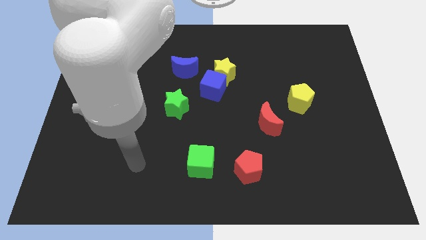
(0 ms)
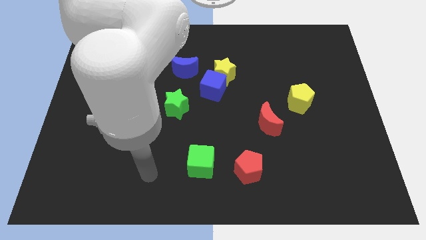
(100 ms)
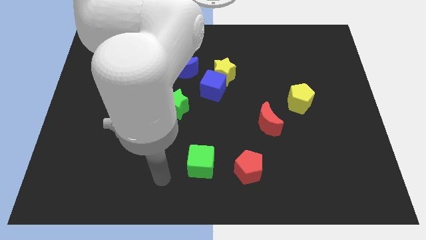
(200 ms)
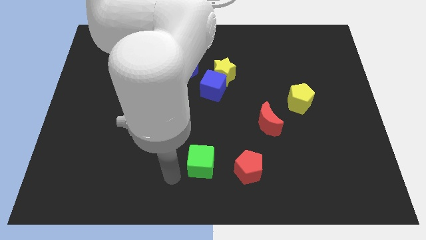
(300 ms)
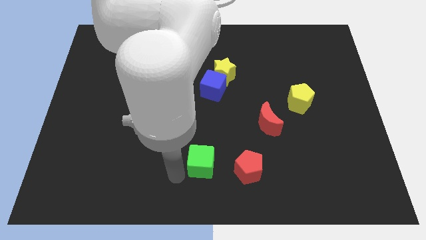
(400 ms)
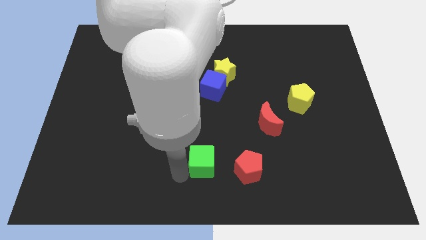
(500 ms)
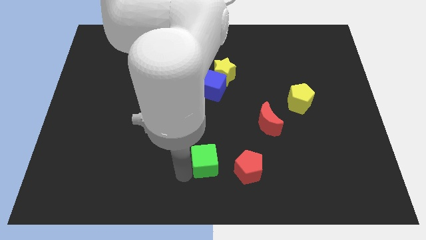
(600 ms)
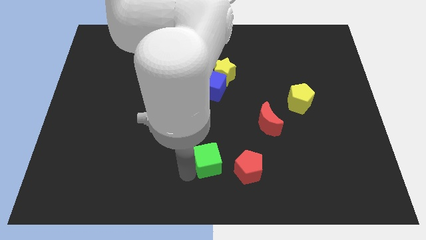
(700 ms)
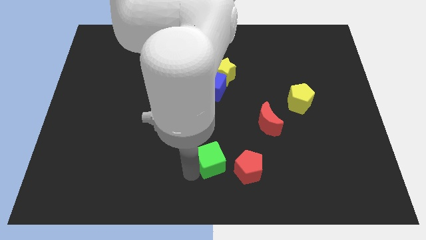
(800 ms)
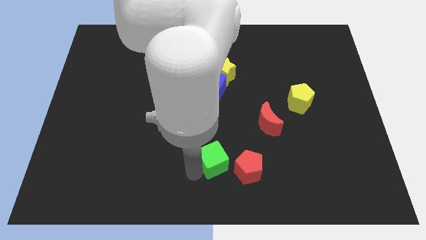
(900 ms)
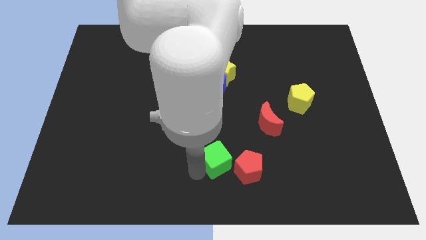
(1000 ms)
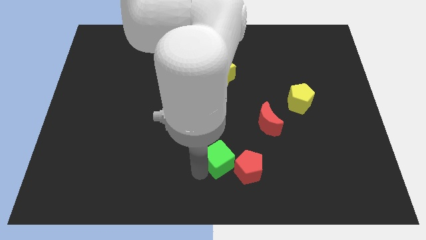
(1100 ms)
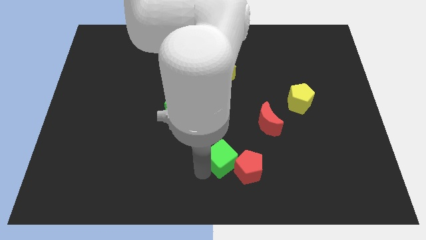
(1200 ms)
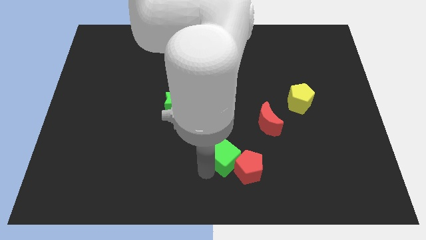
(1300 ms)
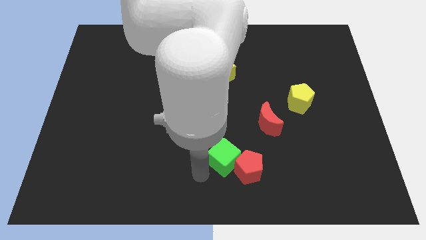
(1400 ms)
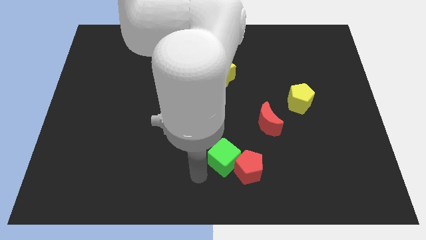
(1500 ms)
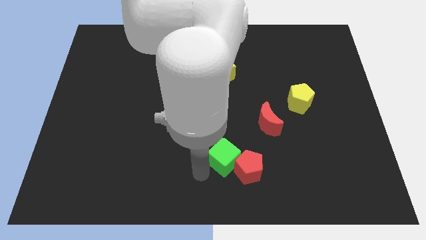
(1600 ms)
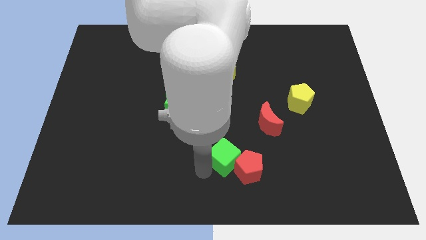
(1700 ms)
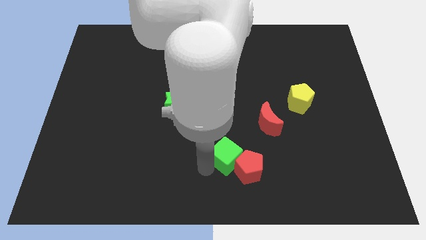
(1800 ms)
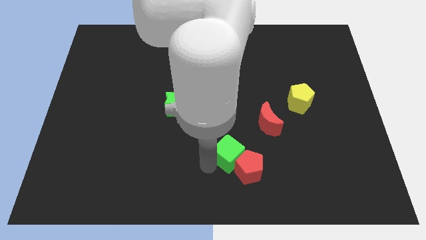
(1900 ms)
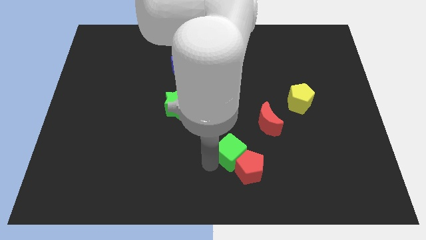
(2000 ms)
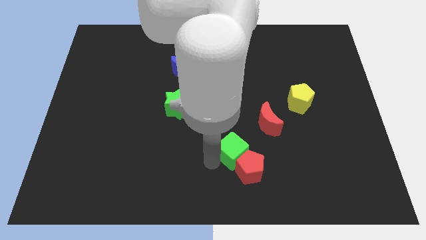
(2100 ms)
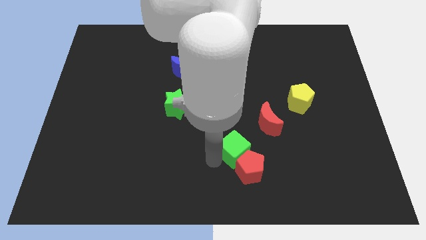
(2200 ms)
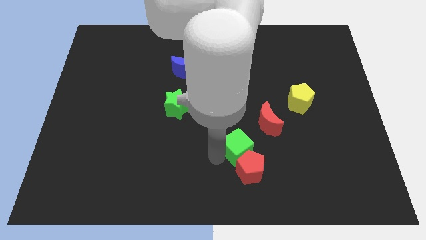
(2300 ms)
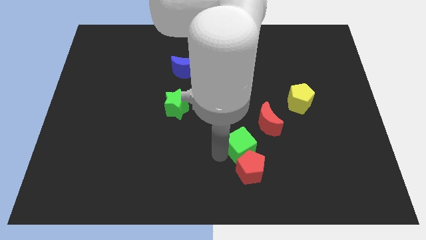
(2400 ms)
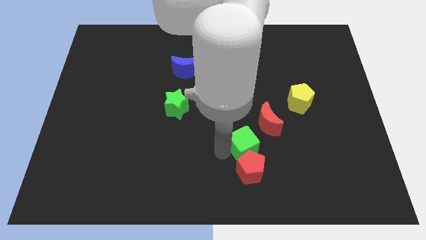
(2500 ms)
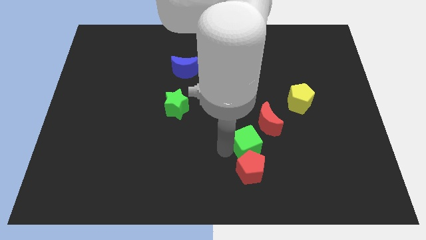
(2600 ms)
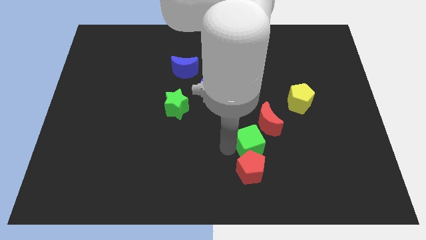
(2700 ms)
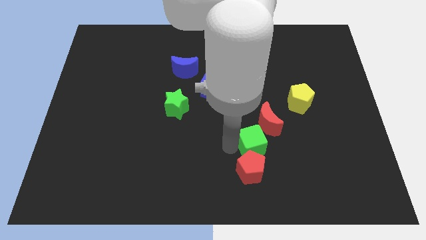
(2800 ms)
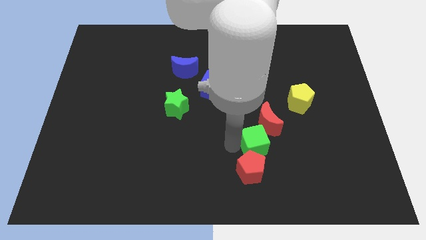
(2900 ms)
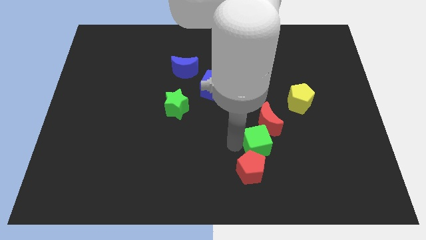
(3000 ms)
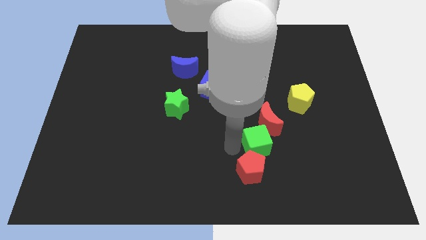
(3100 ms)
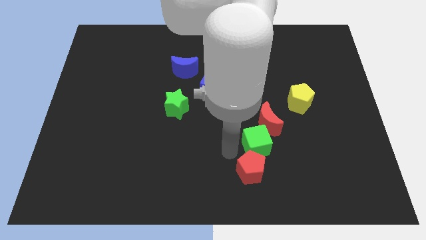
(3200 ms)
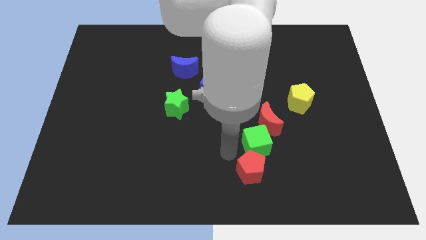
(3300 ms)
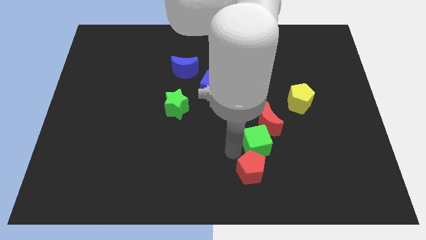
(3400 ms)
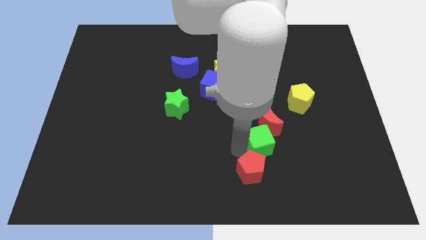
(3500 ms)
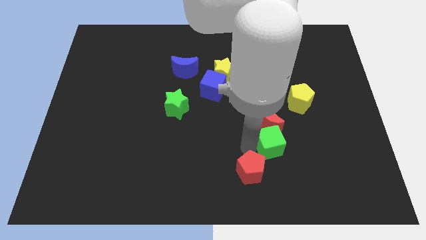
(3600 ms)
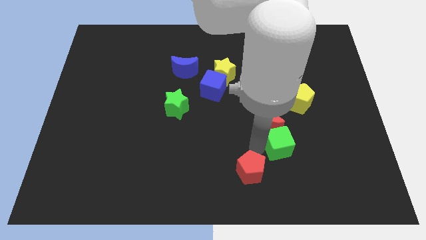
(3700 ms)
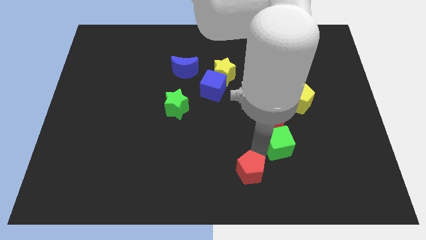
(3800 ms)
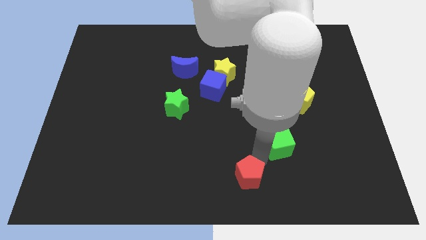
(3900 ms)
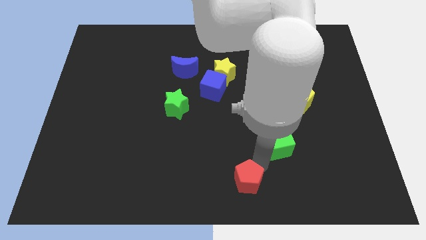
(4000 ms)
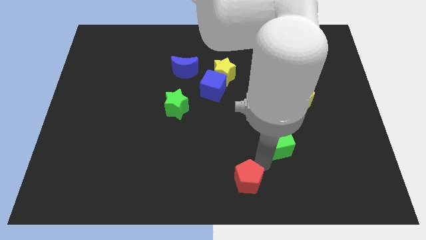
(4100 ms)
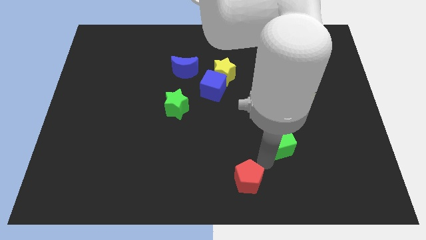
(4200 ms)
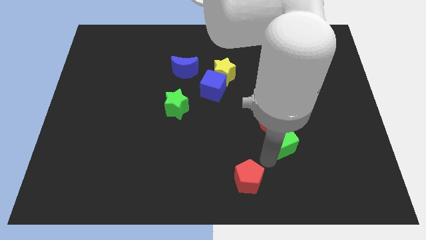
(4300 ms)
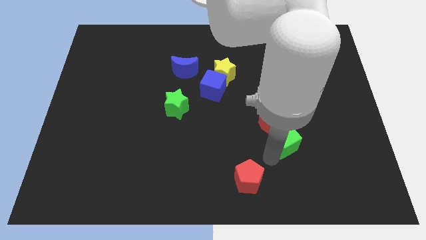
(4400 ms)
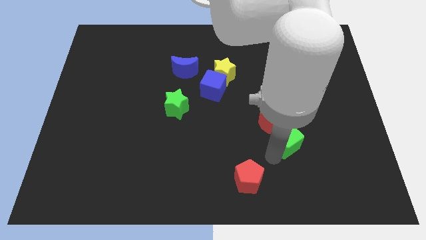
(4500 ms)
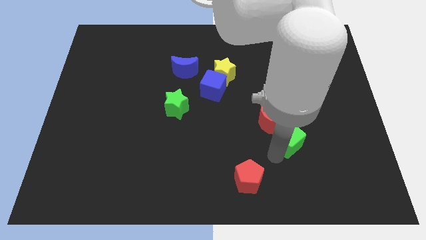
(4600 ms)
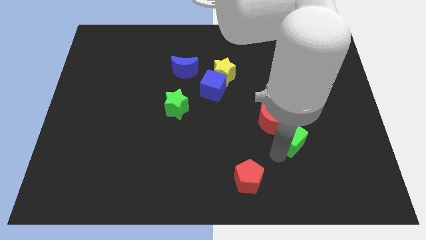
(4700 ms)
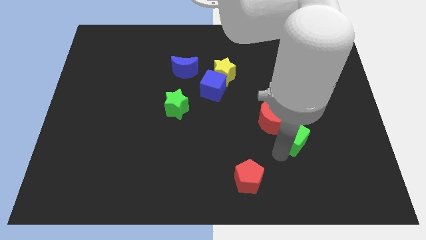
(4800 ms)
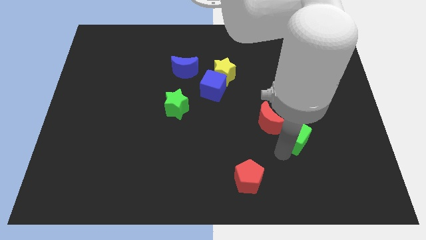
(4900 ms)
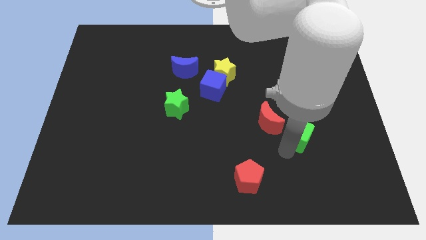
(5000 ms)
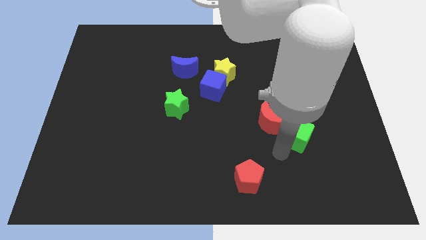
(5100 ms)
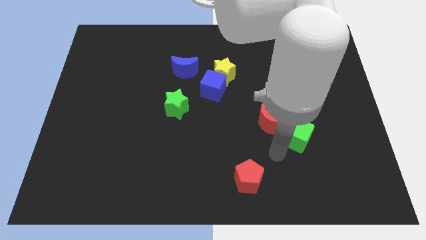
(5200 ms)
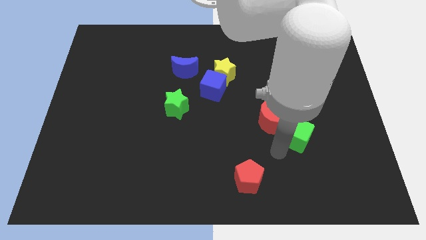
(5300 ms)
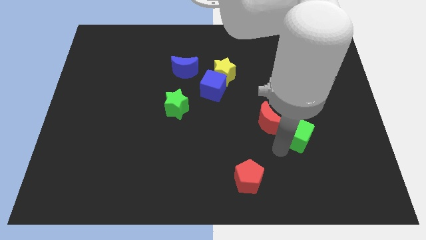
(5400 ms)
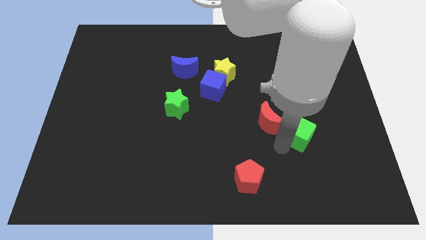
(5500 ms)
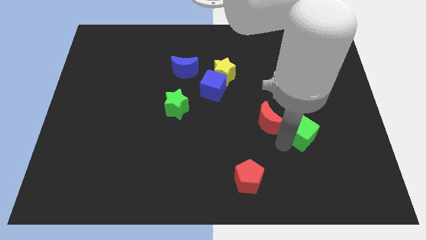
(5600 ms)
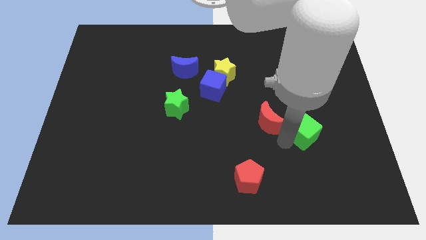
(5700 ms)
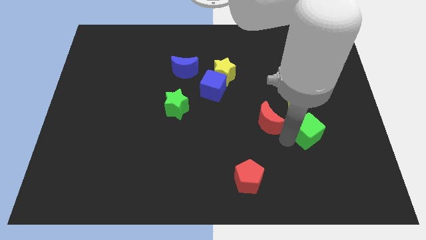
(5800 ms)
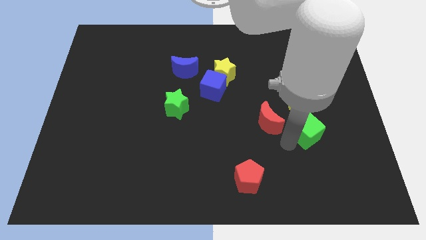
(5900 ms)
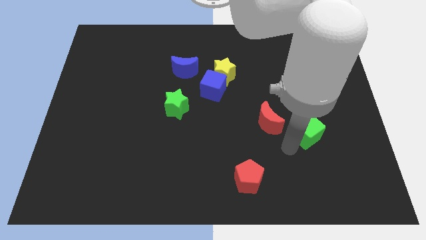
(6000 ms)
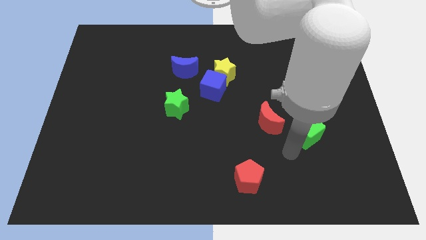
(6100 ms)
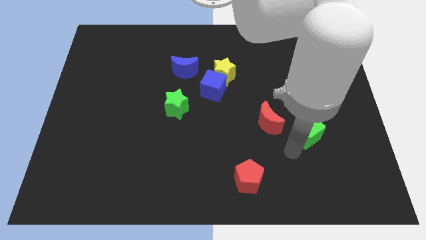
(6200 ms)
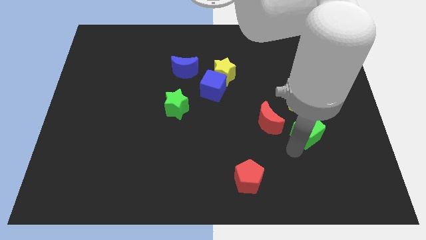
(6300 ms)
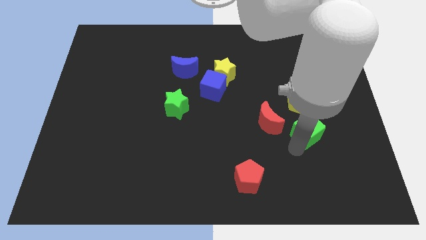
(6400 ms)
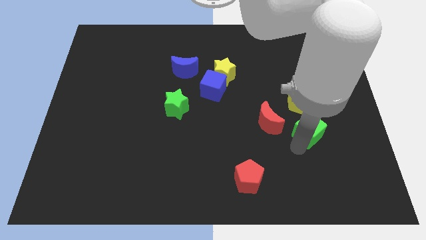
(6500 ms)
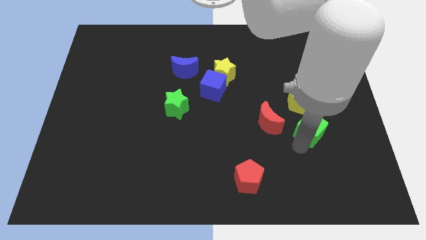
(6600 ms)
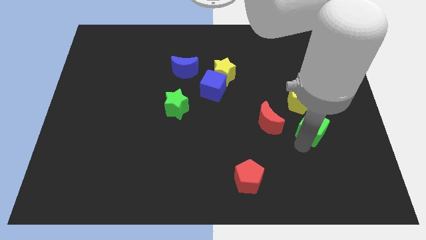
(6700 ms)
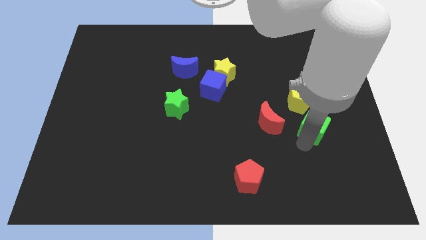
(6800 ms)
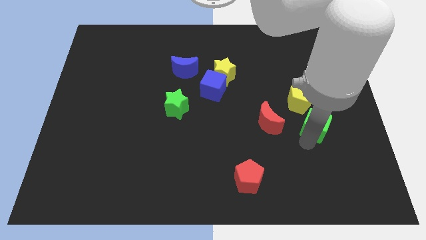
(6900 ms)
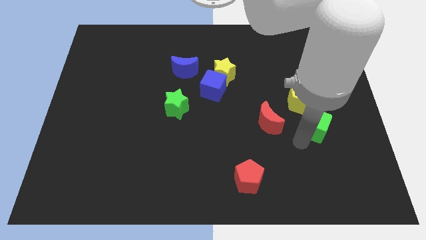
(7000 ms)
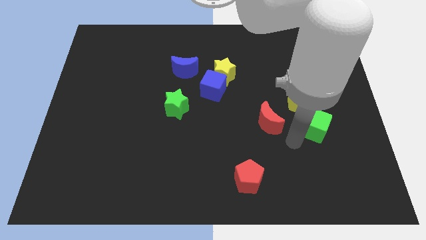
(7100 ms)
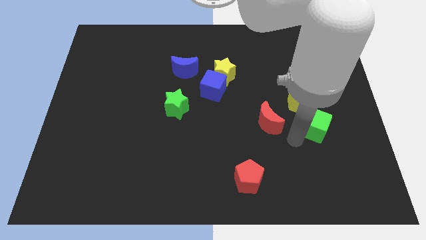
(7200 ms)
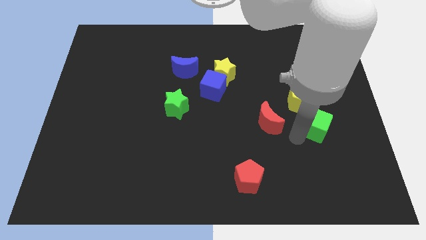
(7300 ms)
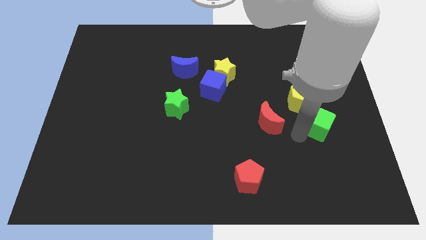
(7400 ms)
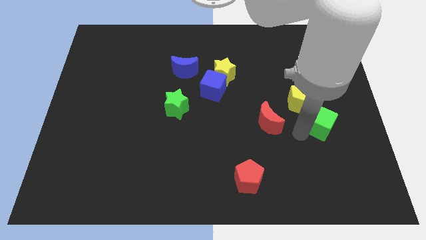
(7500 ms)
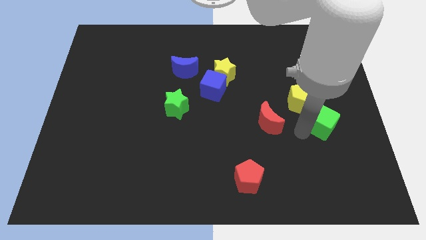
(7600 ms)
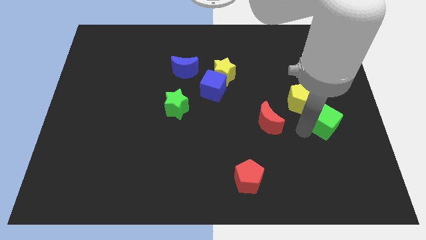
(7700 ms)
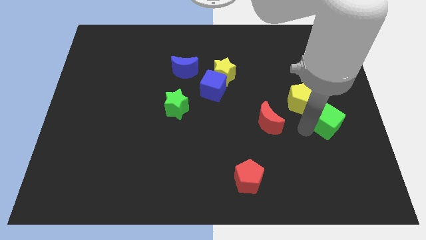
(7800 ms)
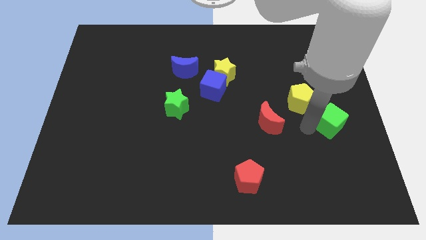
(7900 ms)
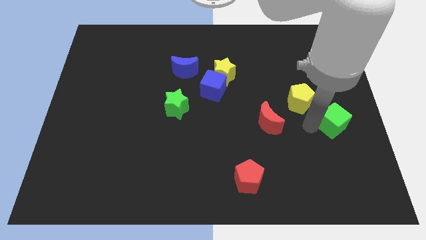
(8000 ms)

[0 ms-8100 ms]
put the green cube to the center right
